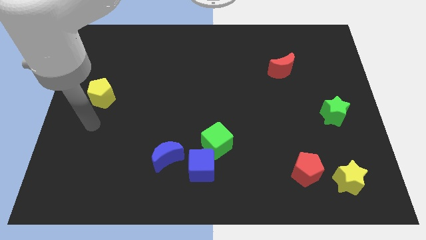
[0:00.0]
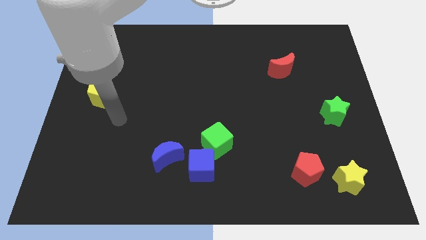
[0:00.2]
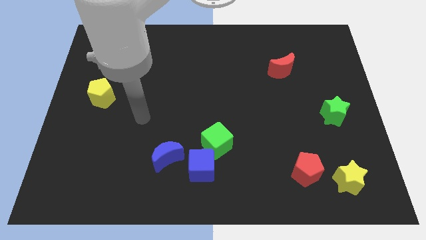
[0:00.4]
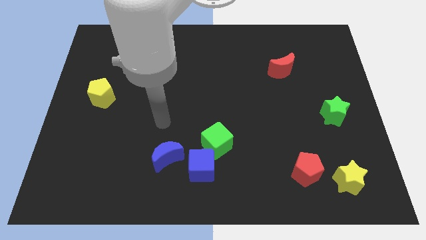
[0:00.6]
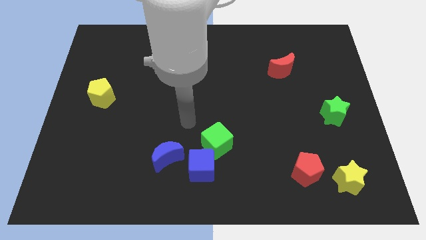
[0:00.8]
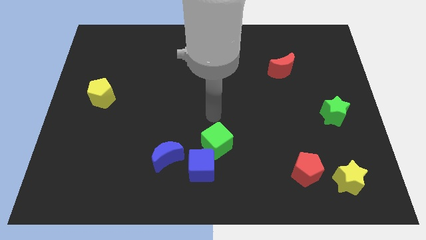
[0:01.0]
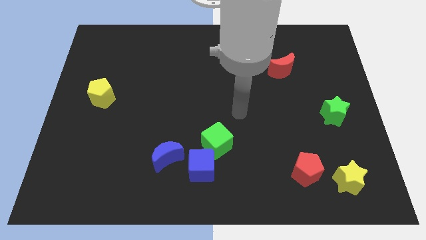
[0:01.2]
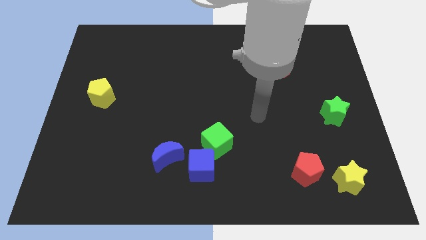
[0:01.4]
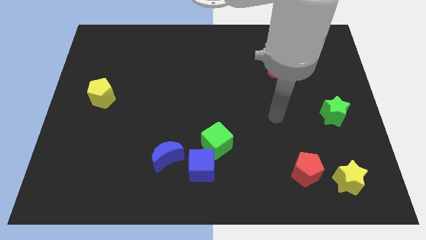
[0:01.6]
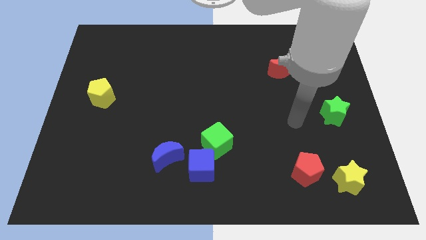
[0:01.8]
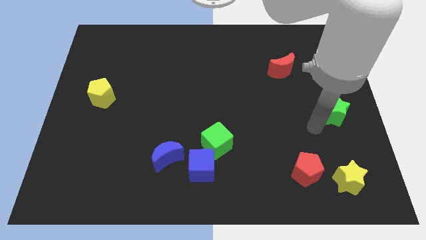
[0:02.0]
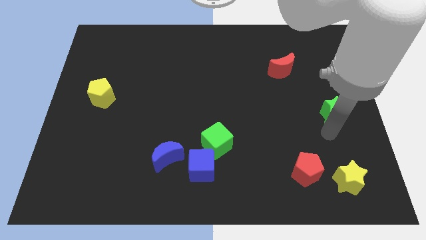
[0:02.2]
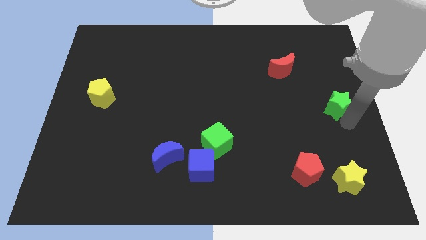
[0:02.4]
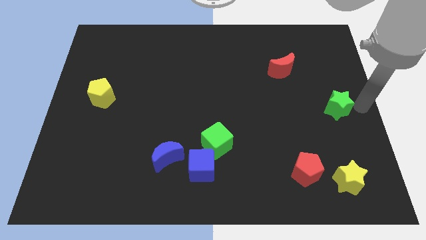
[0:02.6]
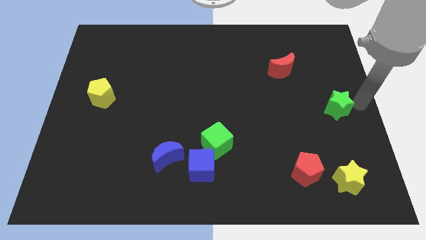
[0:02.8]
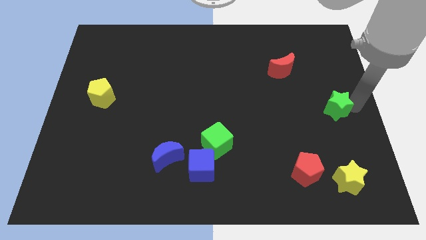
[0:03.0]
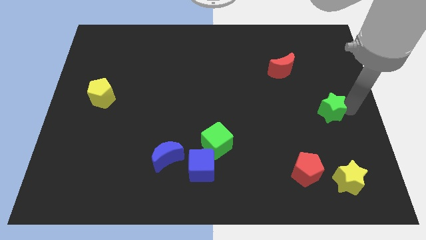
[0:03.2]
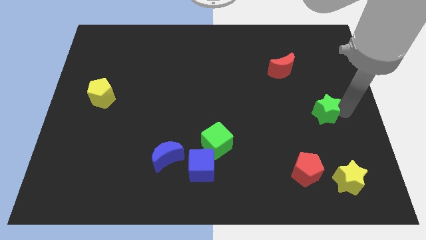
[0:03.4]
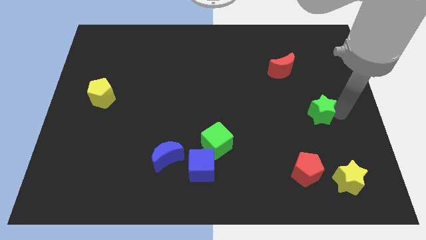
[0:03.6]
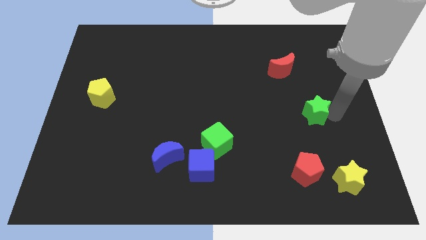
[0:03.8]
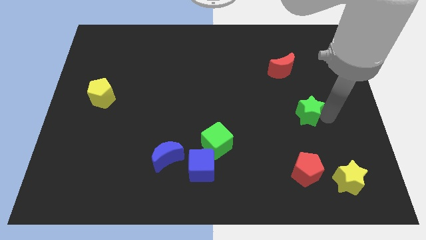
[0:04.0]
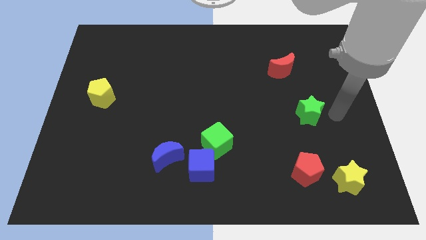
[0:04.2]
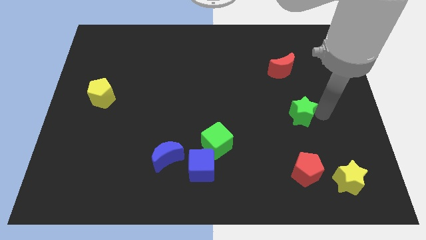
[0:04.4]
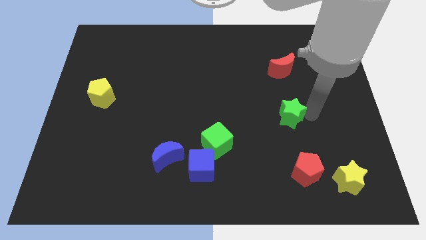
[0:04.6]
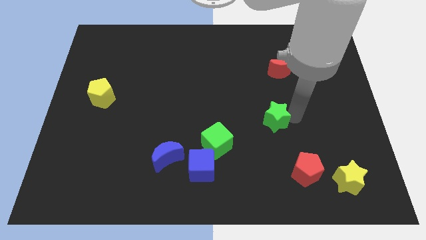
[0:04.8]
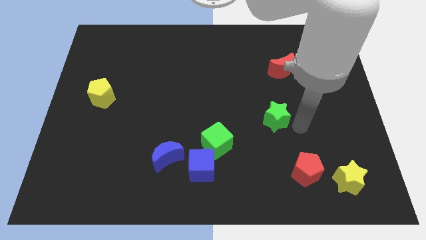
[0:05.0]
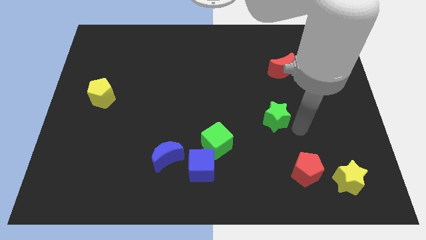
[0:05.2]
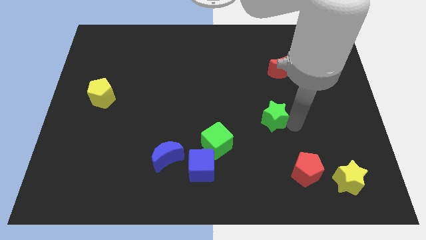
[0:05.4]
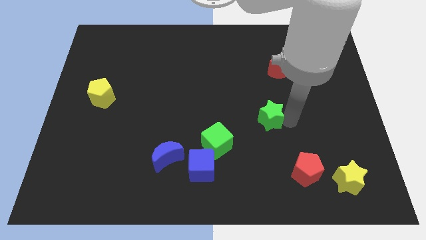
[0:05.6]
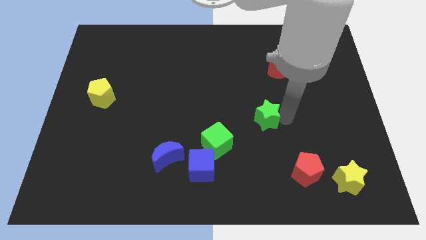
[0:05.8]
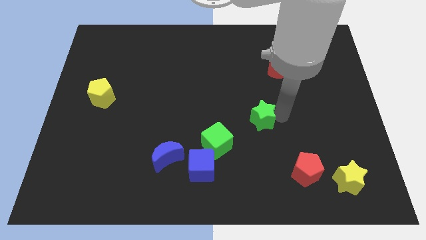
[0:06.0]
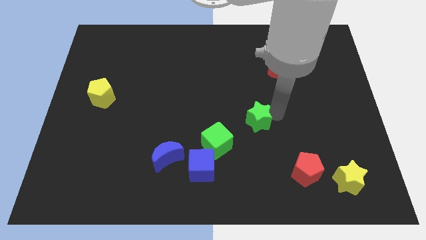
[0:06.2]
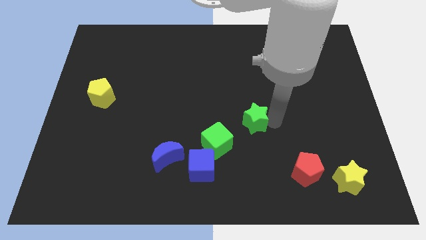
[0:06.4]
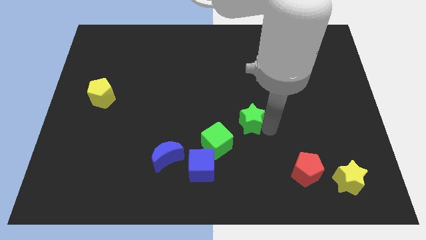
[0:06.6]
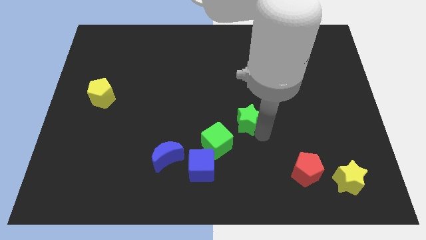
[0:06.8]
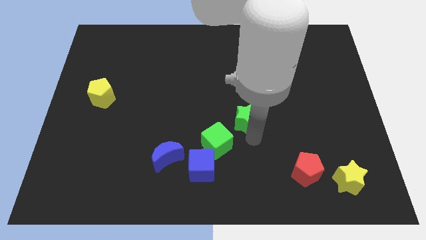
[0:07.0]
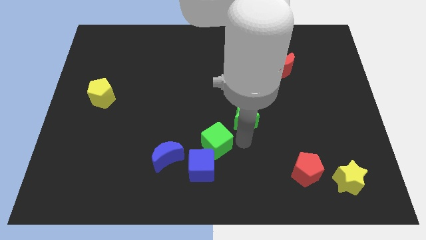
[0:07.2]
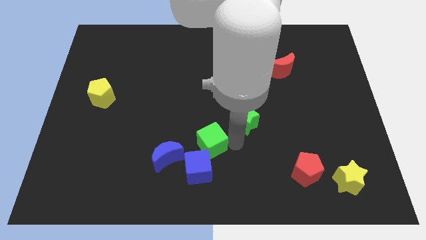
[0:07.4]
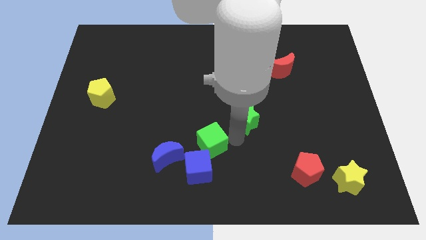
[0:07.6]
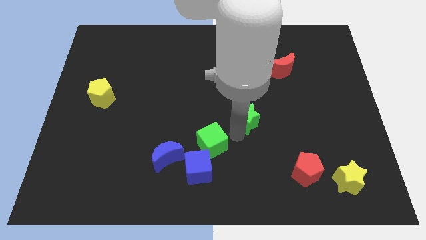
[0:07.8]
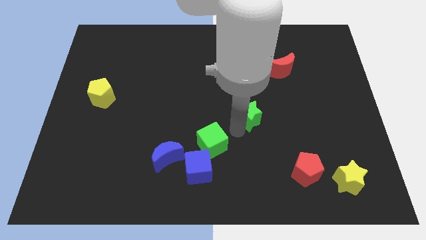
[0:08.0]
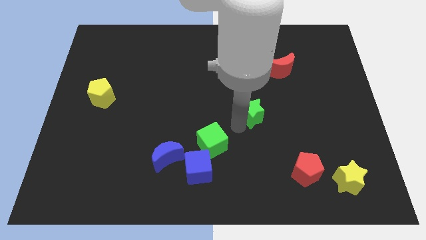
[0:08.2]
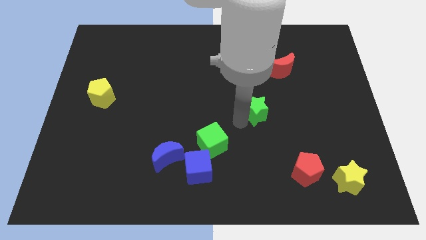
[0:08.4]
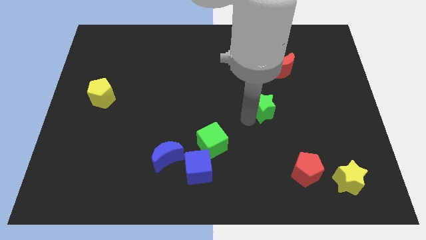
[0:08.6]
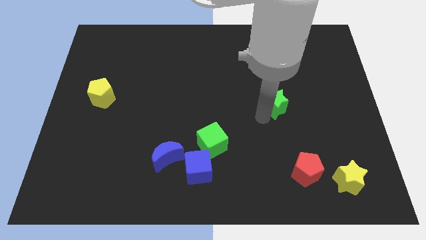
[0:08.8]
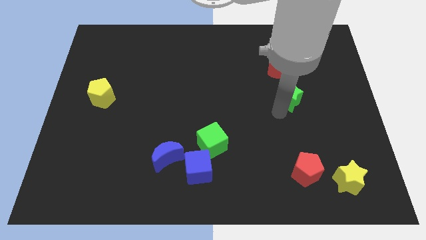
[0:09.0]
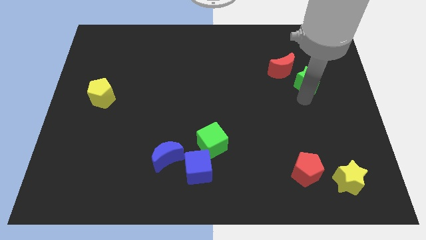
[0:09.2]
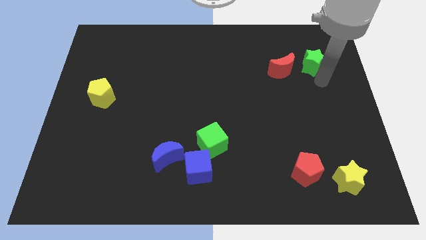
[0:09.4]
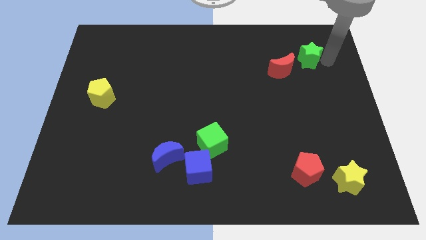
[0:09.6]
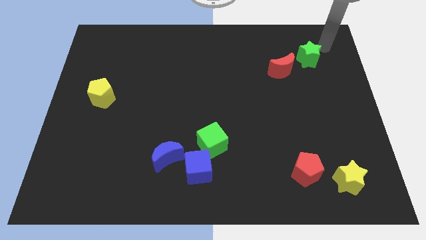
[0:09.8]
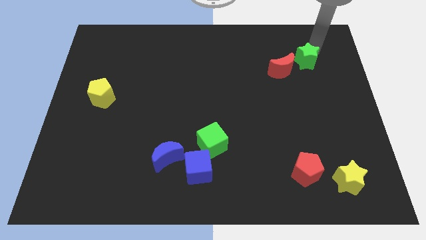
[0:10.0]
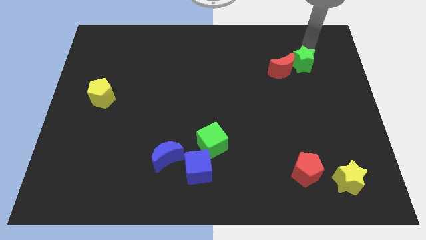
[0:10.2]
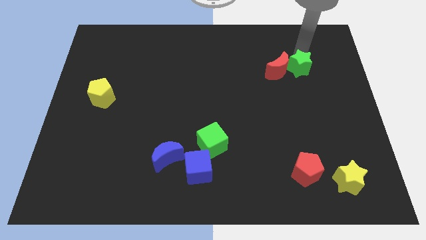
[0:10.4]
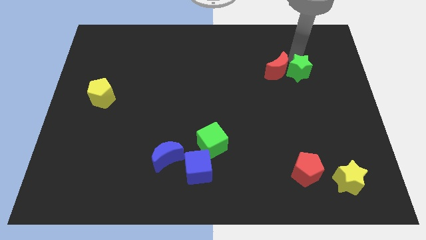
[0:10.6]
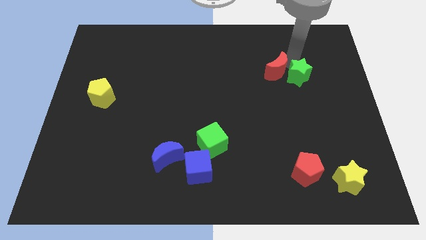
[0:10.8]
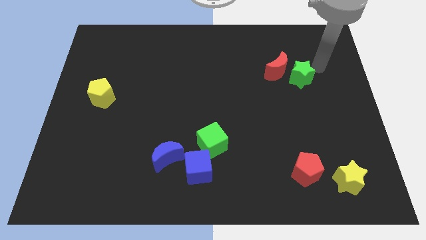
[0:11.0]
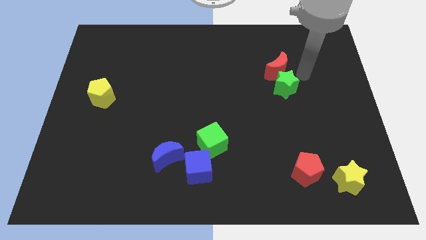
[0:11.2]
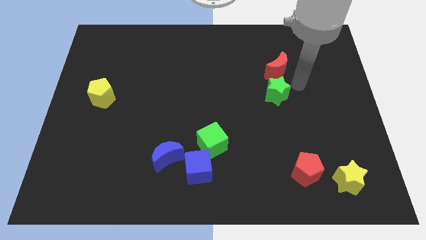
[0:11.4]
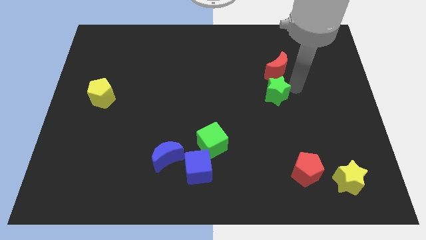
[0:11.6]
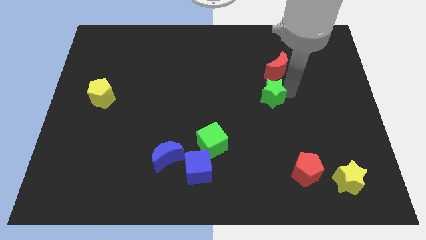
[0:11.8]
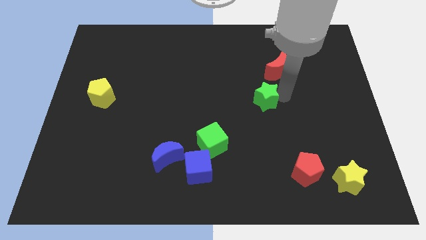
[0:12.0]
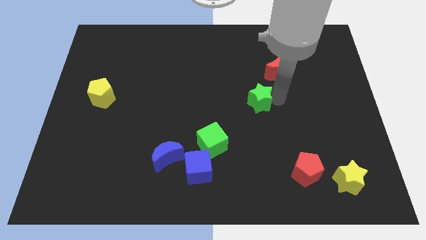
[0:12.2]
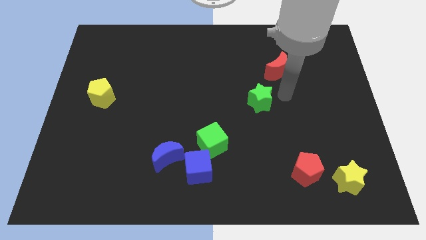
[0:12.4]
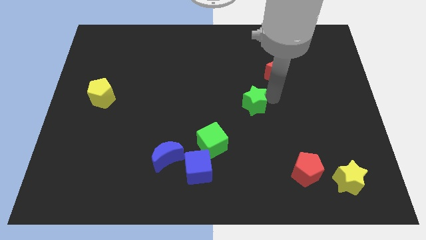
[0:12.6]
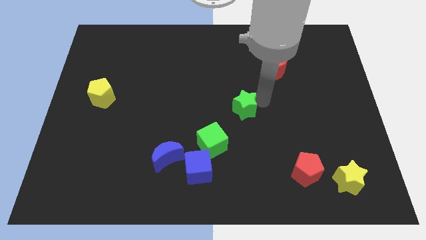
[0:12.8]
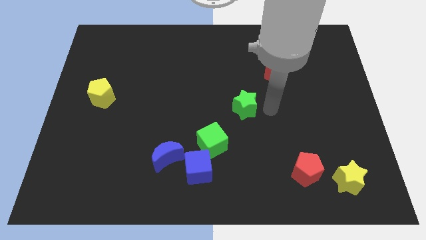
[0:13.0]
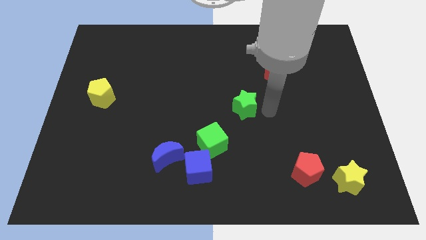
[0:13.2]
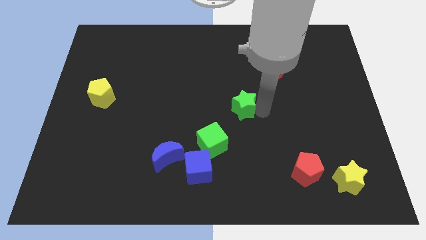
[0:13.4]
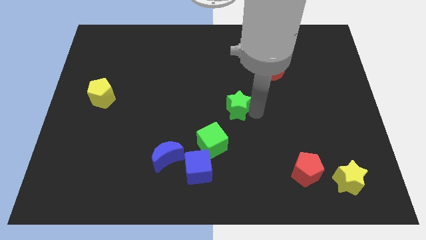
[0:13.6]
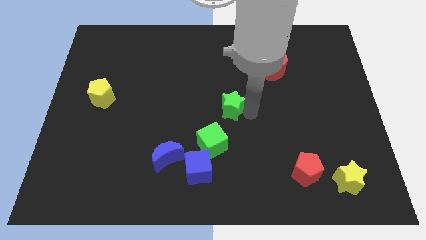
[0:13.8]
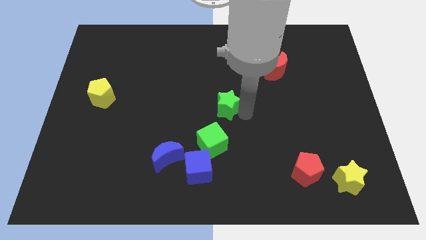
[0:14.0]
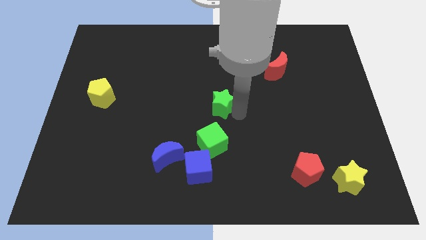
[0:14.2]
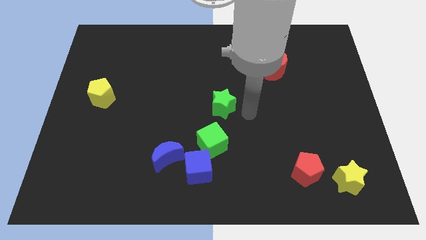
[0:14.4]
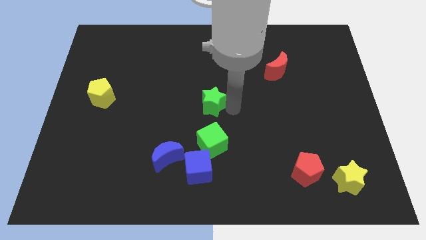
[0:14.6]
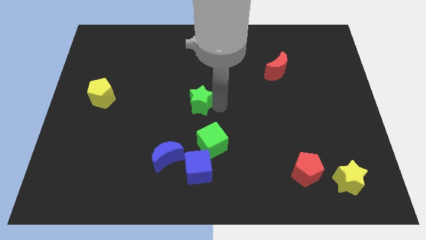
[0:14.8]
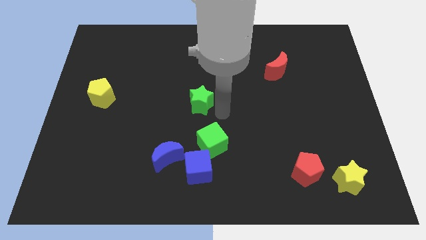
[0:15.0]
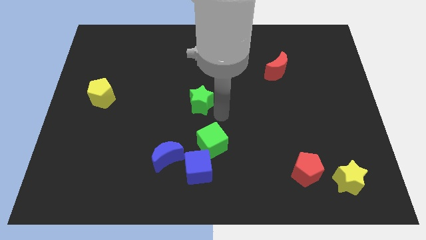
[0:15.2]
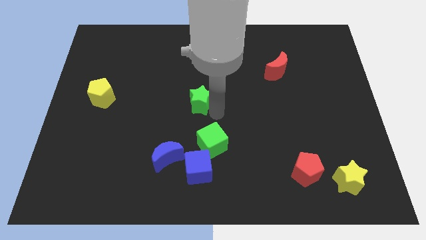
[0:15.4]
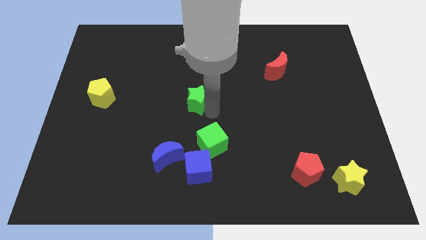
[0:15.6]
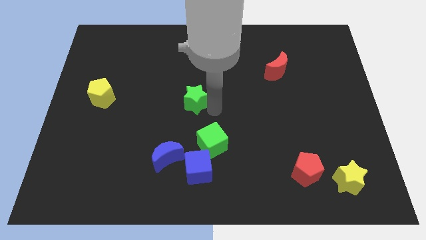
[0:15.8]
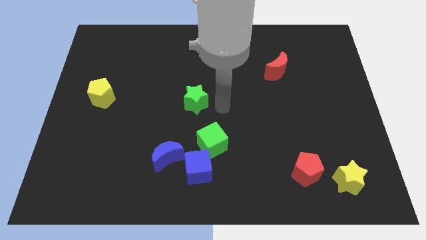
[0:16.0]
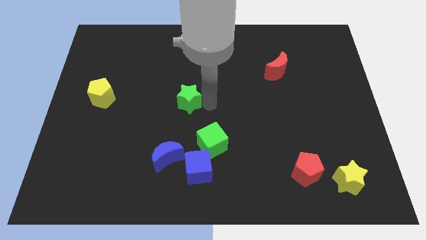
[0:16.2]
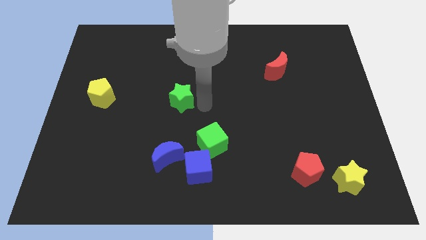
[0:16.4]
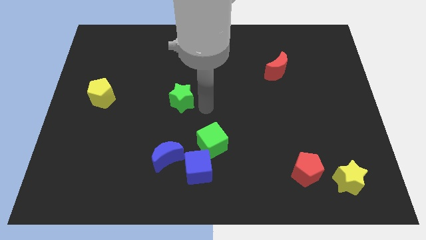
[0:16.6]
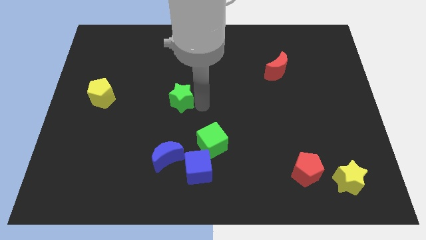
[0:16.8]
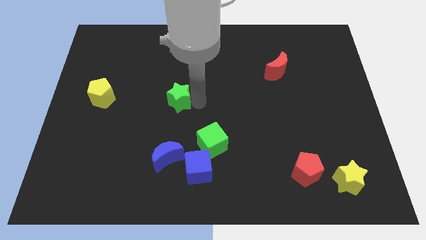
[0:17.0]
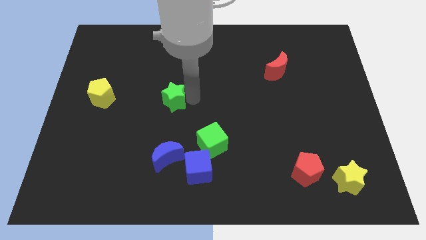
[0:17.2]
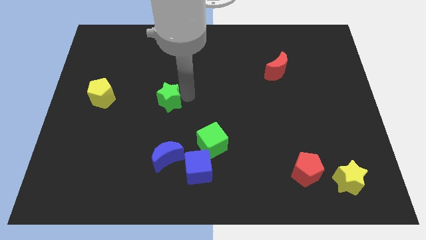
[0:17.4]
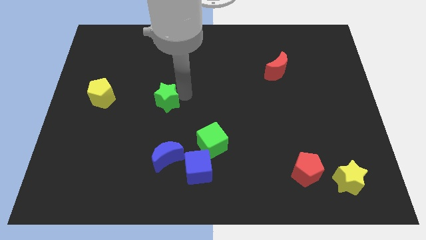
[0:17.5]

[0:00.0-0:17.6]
move the green star to the right of the yellow pentagon
